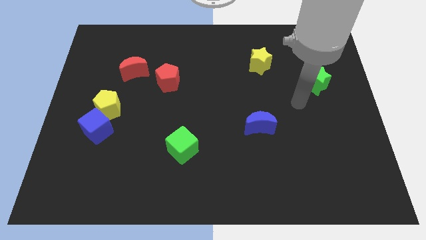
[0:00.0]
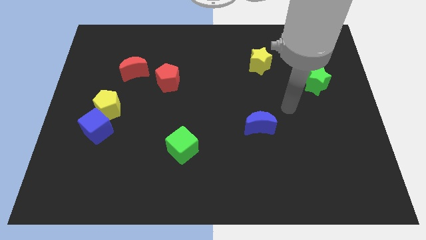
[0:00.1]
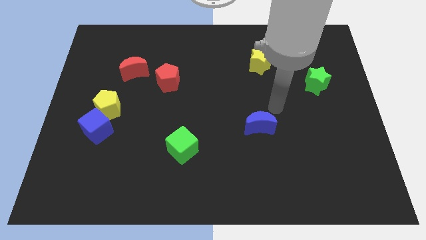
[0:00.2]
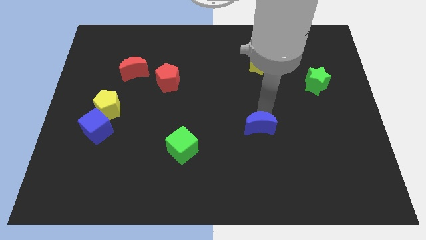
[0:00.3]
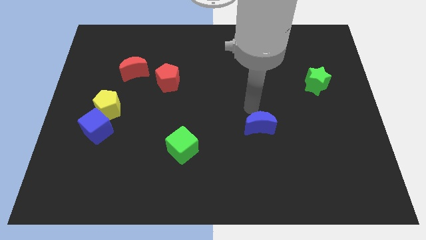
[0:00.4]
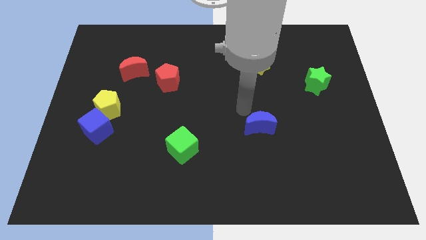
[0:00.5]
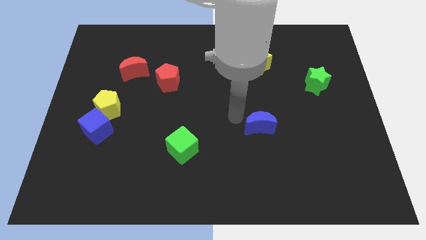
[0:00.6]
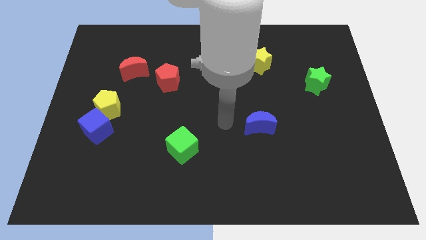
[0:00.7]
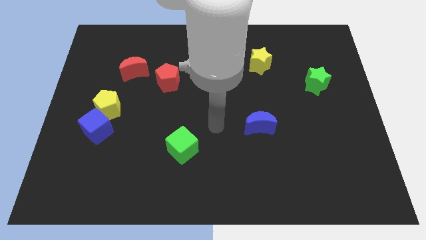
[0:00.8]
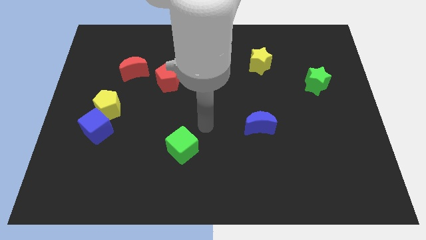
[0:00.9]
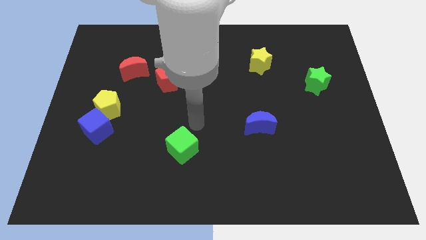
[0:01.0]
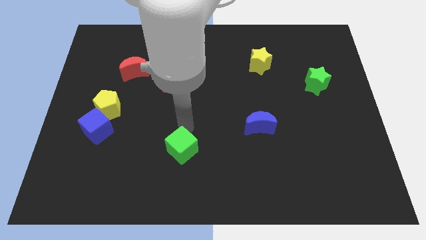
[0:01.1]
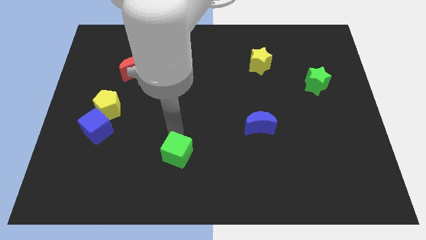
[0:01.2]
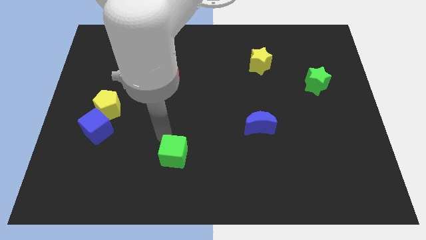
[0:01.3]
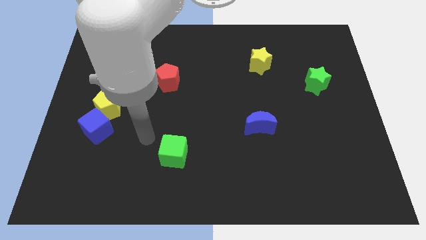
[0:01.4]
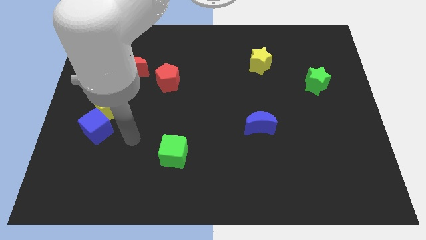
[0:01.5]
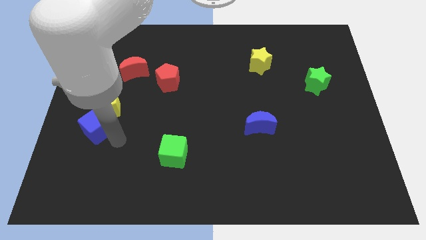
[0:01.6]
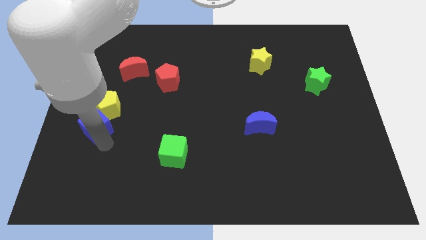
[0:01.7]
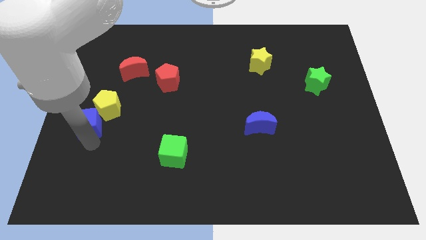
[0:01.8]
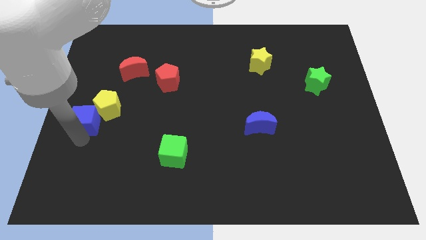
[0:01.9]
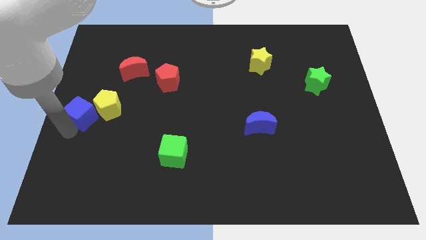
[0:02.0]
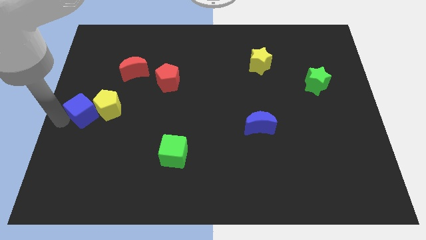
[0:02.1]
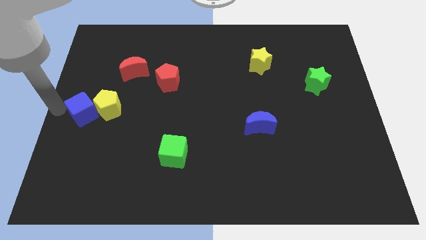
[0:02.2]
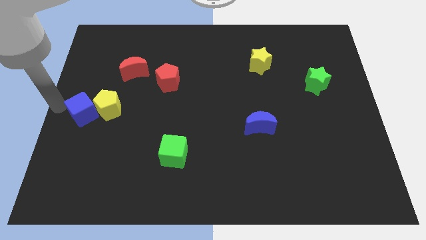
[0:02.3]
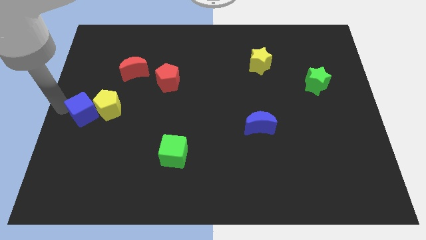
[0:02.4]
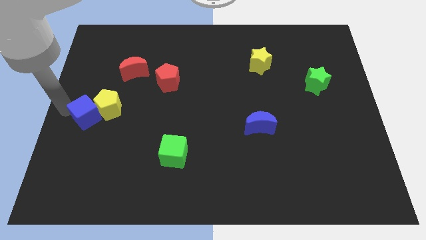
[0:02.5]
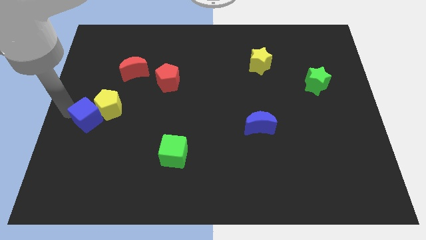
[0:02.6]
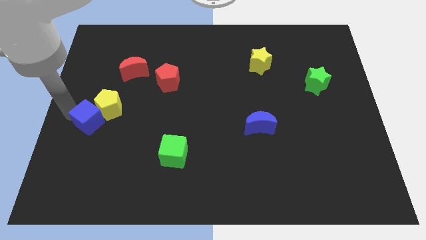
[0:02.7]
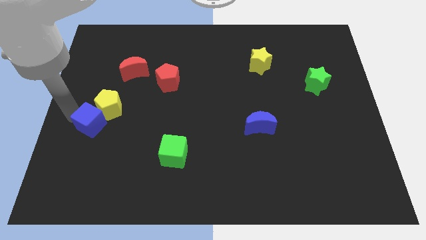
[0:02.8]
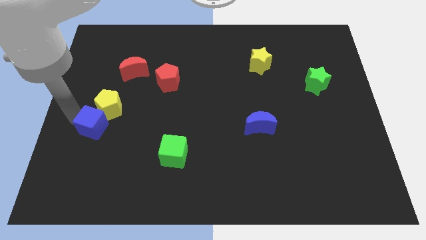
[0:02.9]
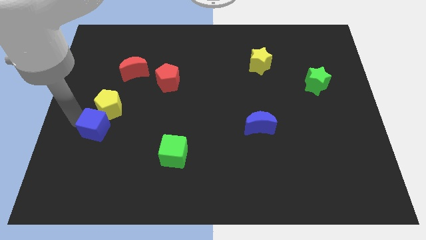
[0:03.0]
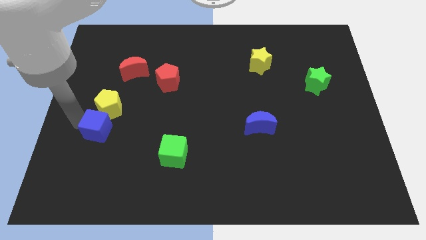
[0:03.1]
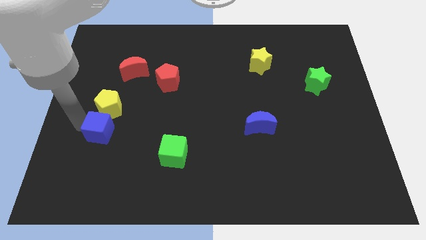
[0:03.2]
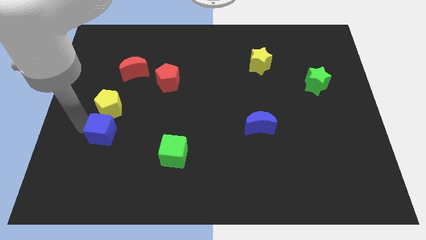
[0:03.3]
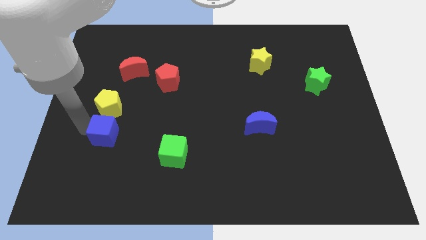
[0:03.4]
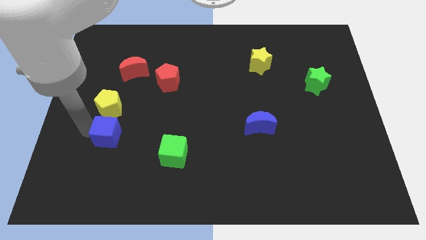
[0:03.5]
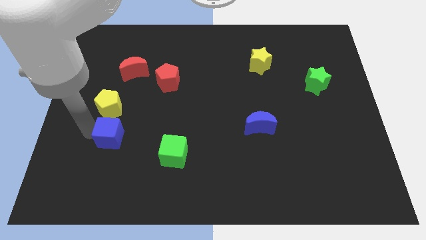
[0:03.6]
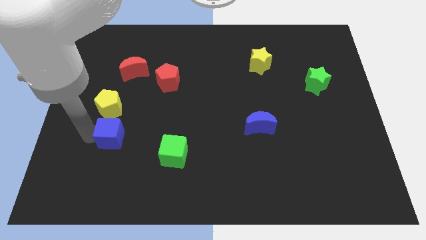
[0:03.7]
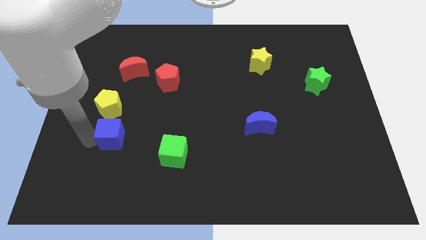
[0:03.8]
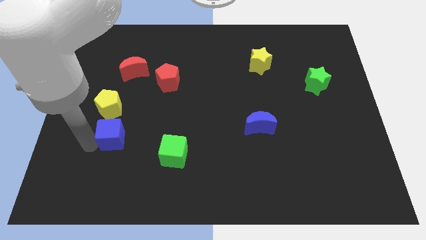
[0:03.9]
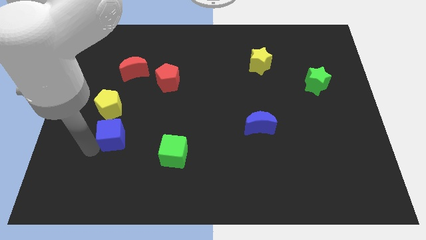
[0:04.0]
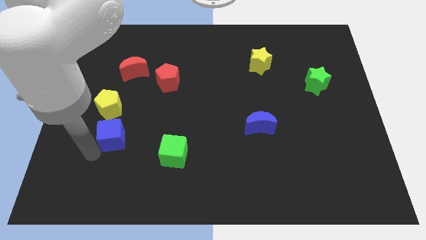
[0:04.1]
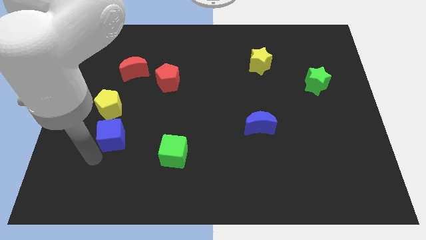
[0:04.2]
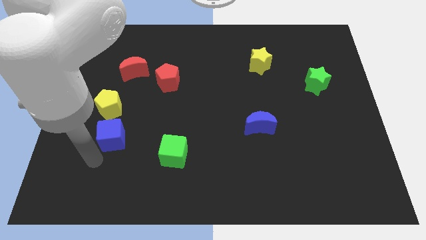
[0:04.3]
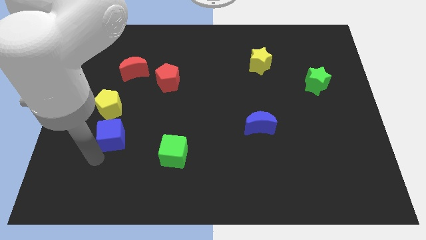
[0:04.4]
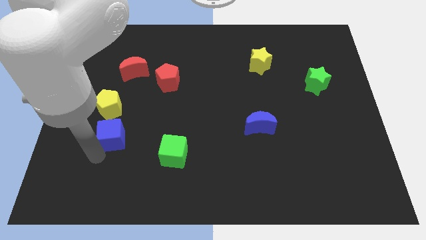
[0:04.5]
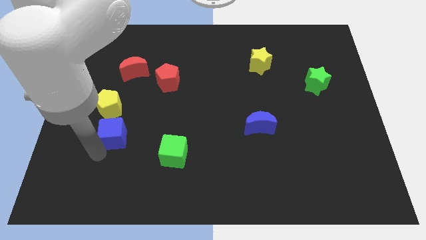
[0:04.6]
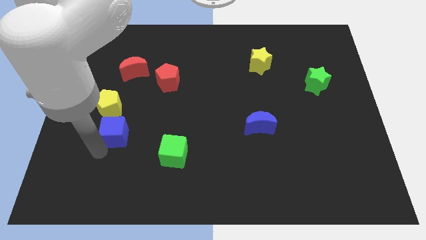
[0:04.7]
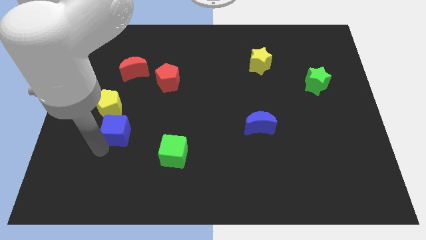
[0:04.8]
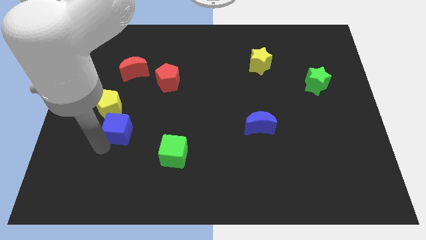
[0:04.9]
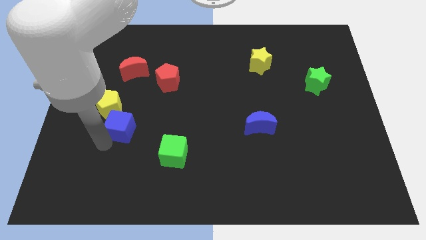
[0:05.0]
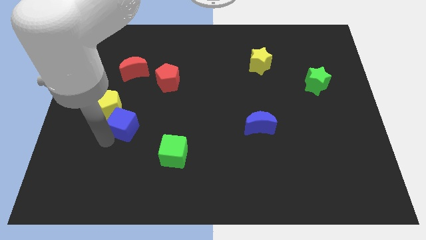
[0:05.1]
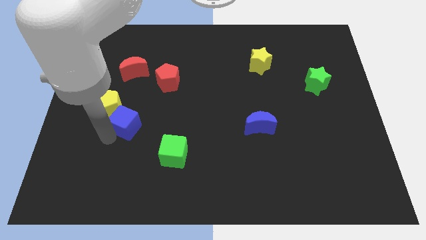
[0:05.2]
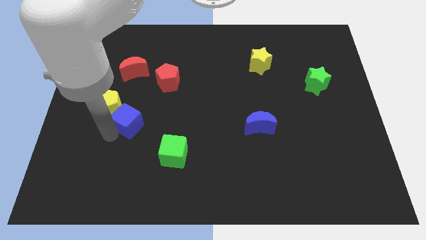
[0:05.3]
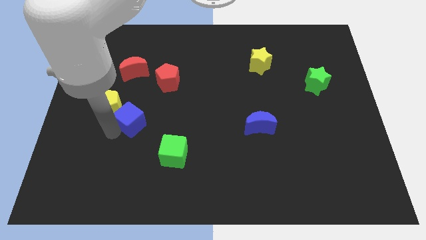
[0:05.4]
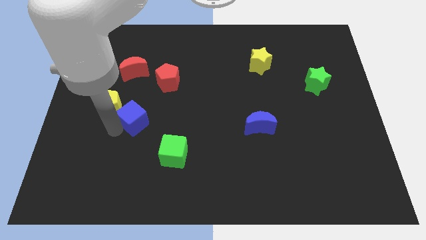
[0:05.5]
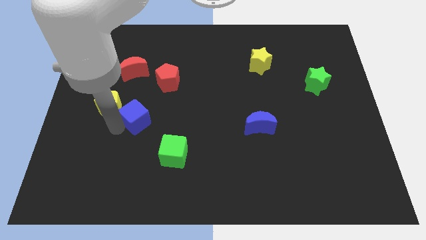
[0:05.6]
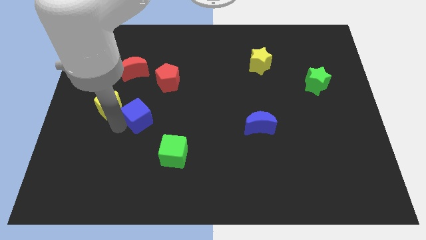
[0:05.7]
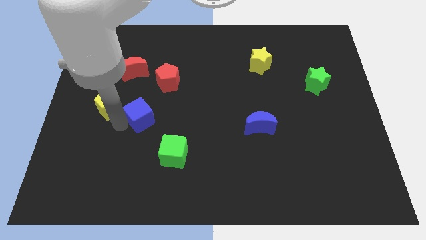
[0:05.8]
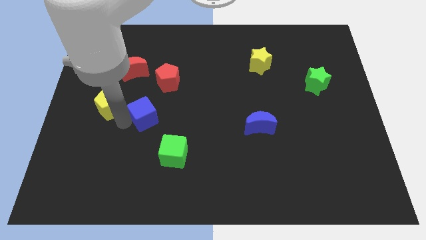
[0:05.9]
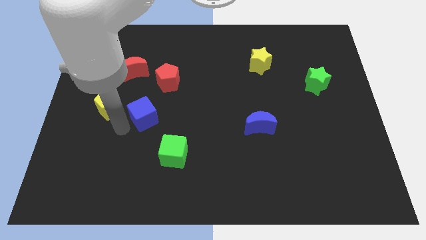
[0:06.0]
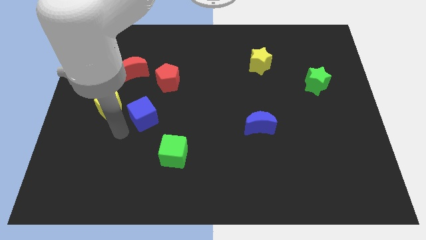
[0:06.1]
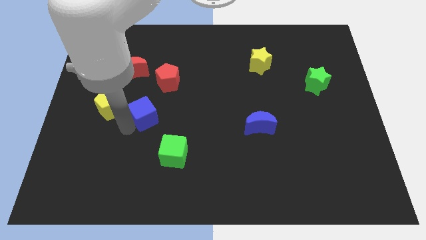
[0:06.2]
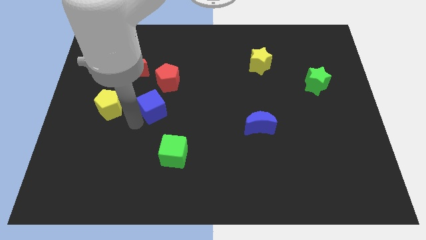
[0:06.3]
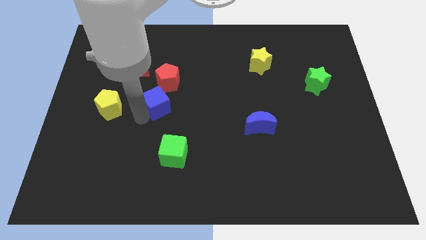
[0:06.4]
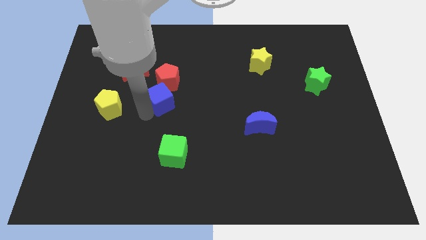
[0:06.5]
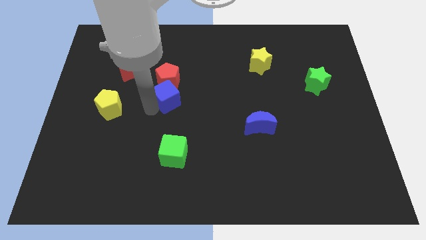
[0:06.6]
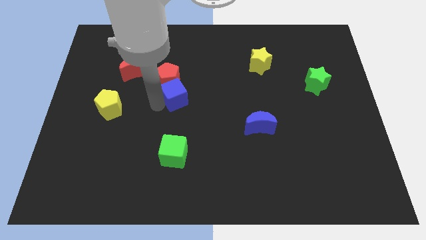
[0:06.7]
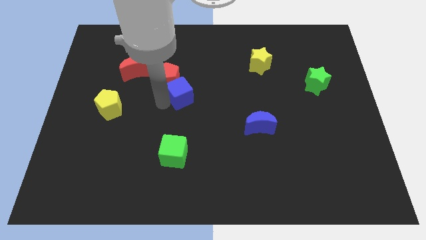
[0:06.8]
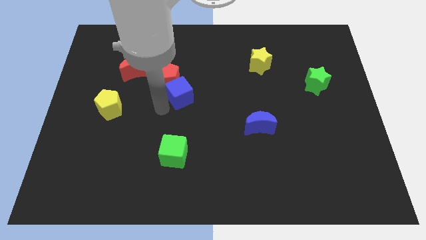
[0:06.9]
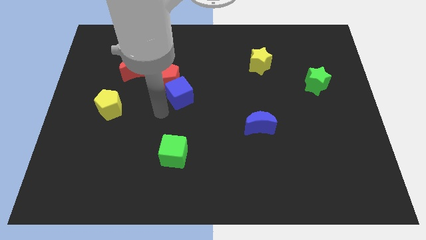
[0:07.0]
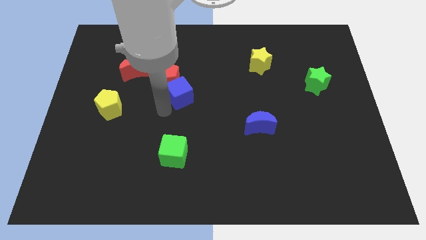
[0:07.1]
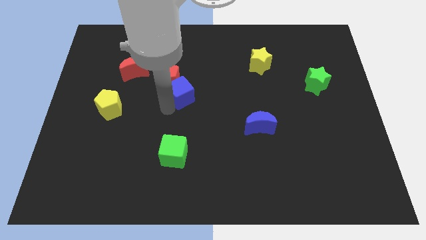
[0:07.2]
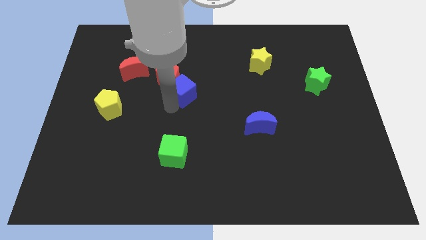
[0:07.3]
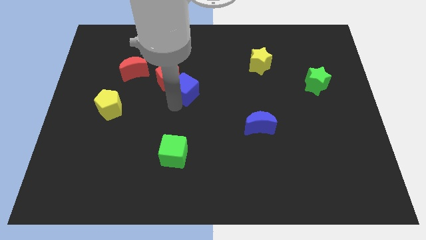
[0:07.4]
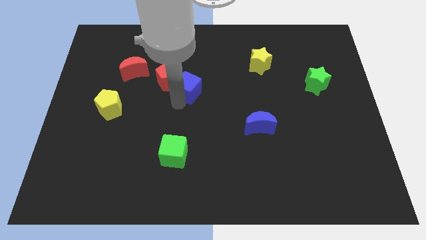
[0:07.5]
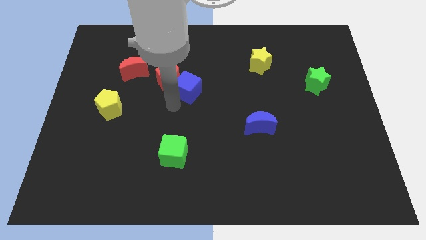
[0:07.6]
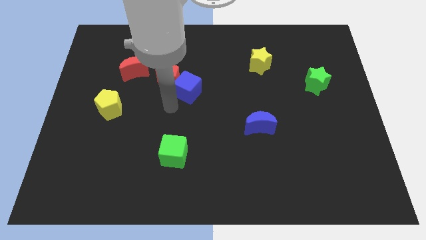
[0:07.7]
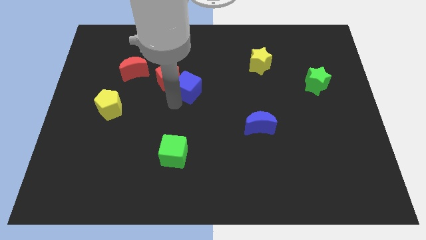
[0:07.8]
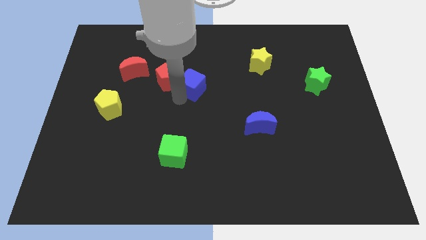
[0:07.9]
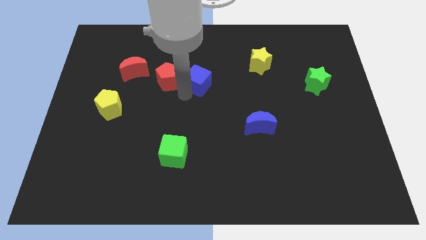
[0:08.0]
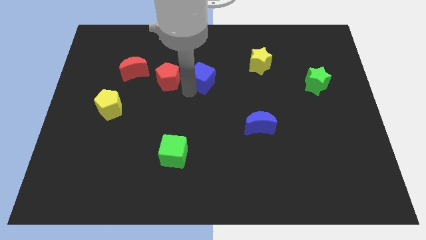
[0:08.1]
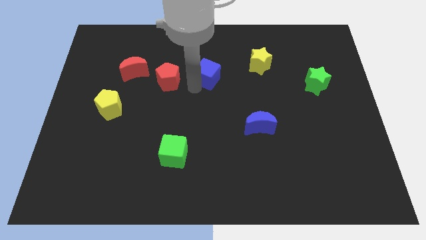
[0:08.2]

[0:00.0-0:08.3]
move the blue cube just left of the yellow star
